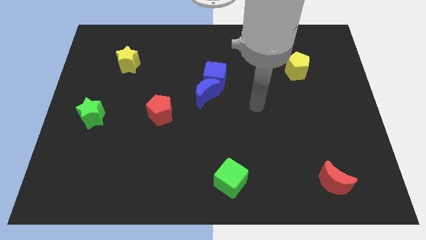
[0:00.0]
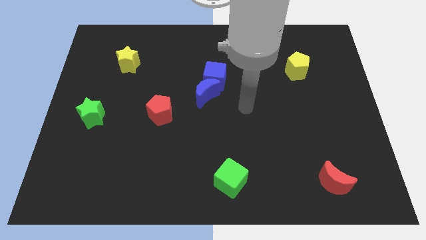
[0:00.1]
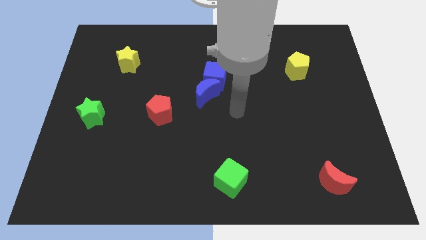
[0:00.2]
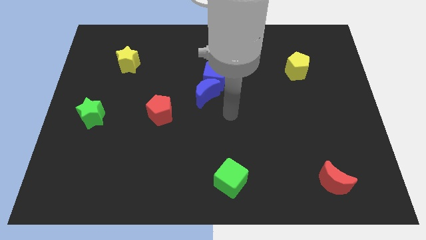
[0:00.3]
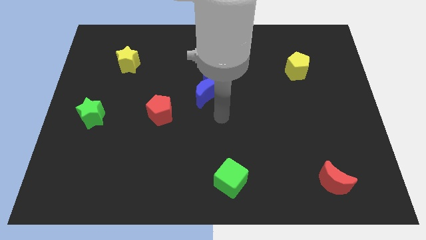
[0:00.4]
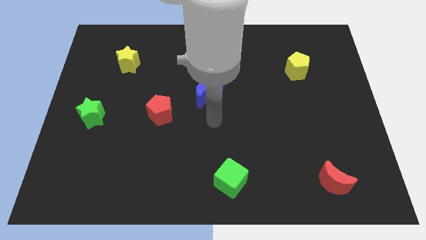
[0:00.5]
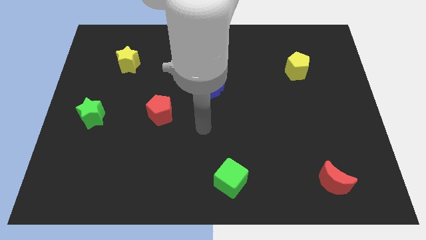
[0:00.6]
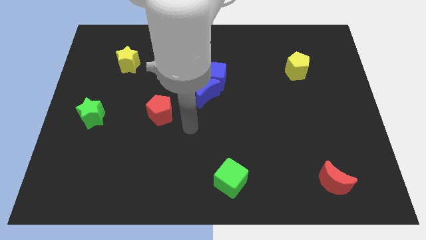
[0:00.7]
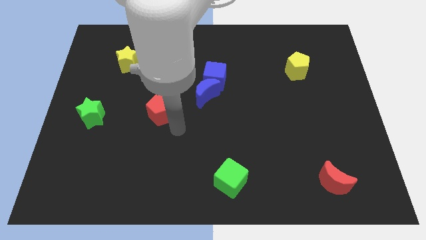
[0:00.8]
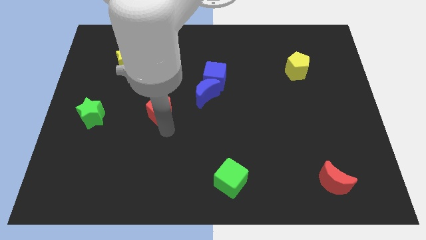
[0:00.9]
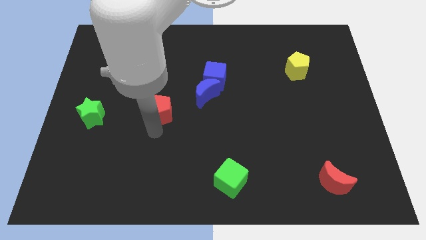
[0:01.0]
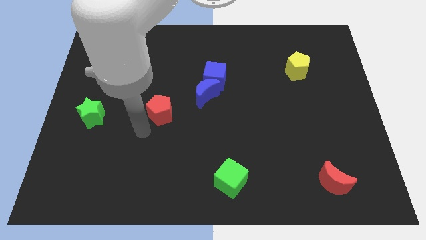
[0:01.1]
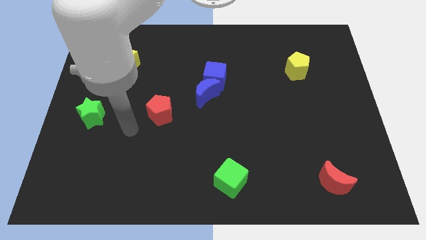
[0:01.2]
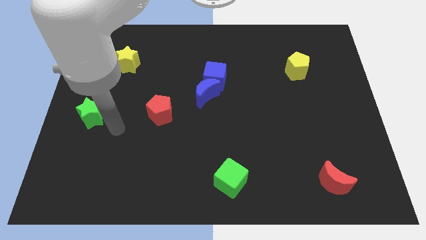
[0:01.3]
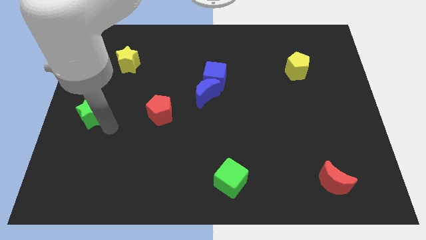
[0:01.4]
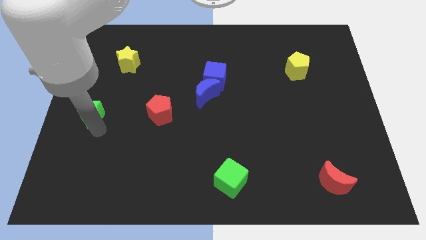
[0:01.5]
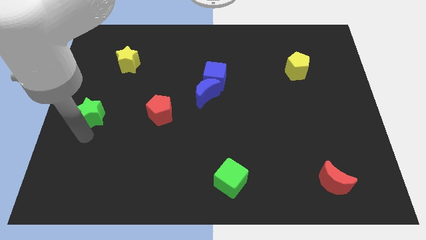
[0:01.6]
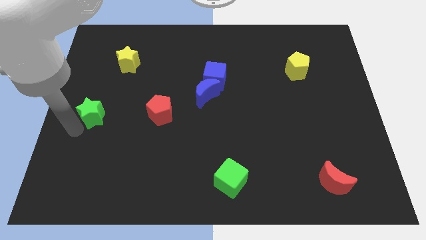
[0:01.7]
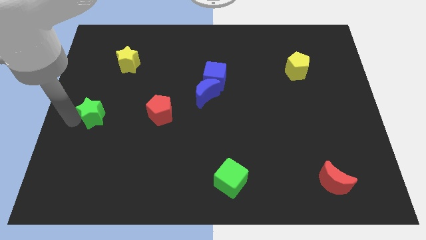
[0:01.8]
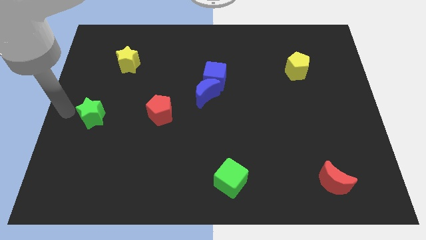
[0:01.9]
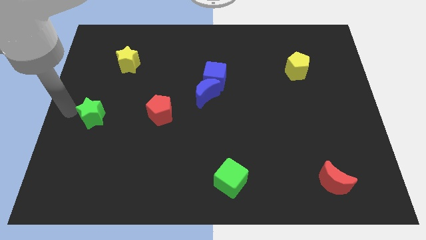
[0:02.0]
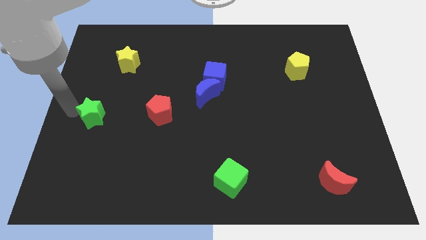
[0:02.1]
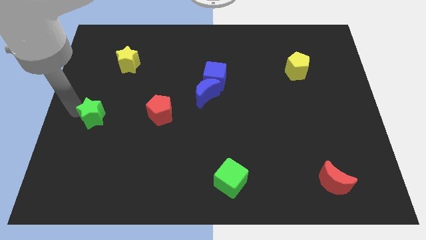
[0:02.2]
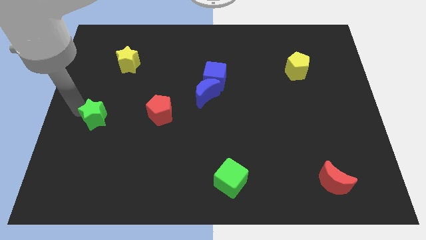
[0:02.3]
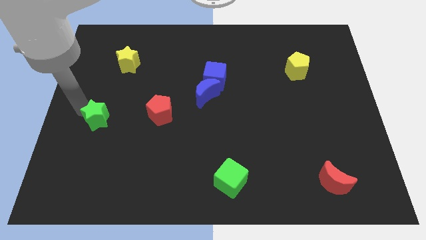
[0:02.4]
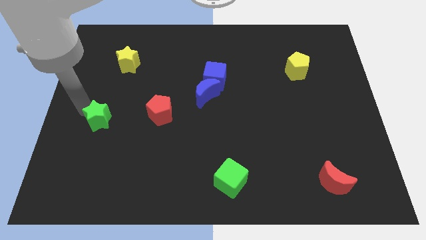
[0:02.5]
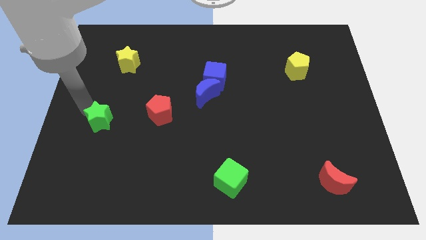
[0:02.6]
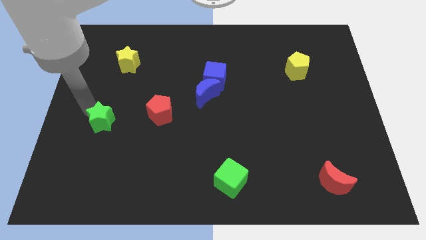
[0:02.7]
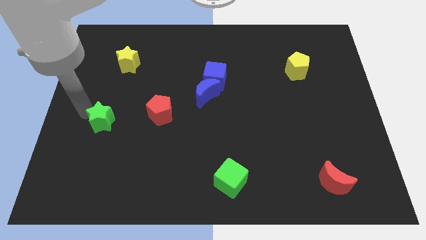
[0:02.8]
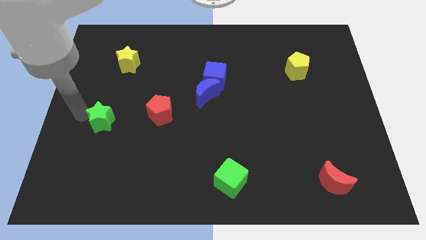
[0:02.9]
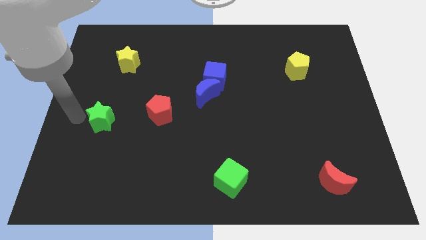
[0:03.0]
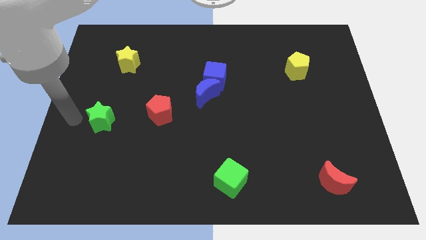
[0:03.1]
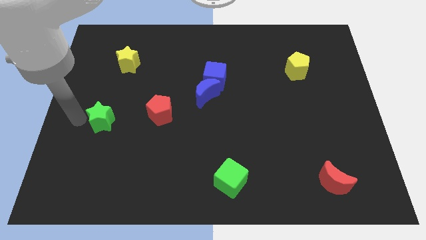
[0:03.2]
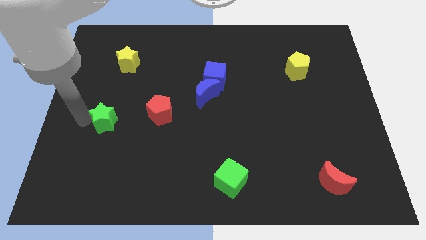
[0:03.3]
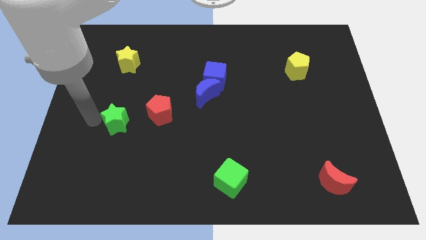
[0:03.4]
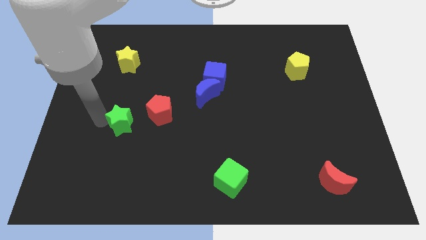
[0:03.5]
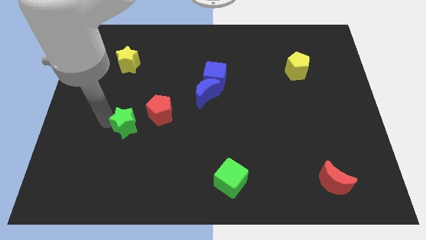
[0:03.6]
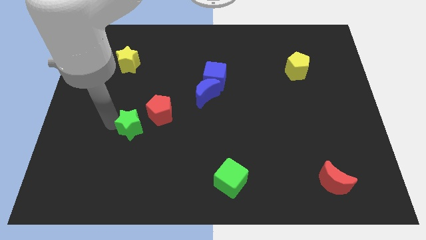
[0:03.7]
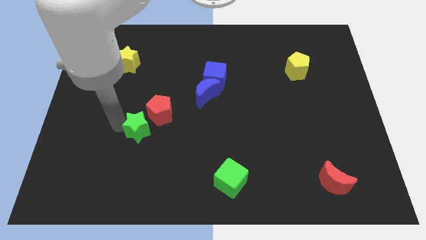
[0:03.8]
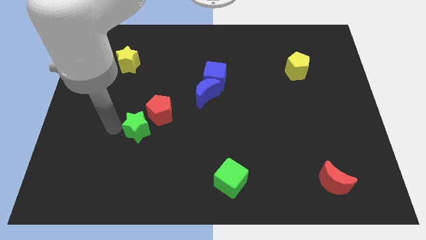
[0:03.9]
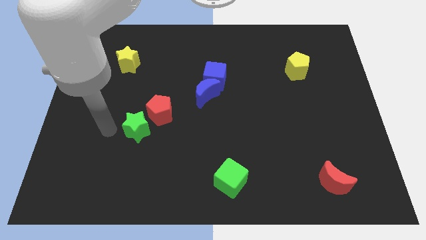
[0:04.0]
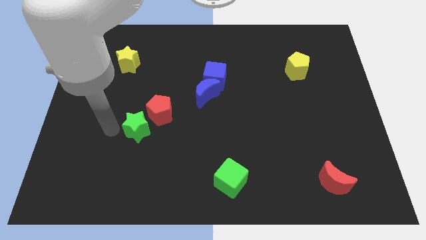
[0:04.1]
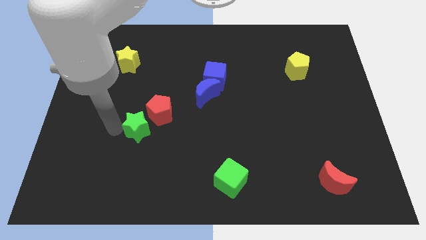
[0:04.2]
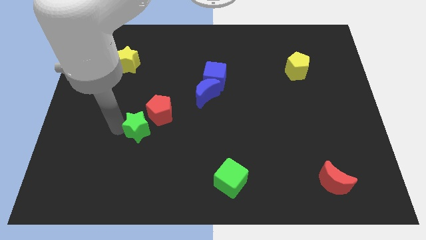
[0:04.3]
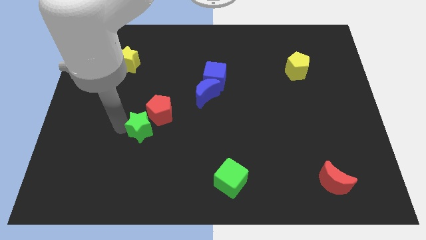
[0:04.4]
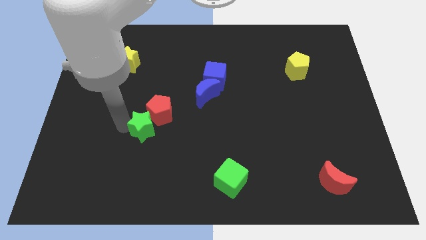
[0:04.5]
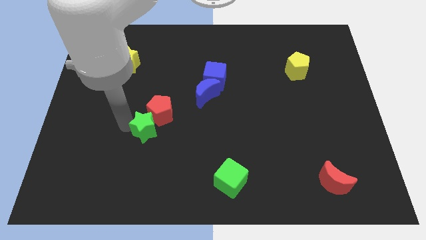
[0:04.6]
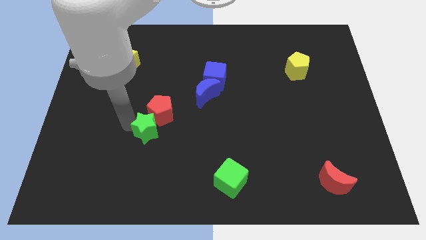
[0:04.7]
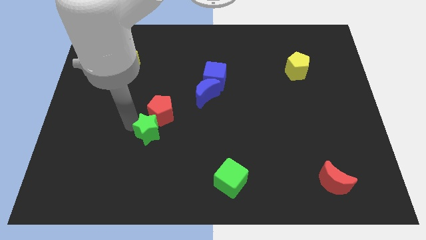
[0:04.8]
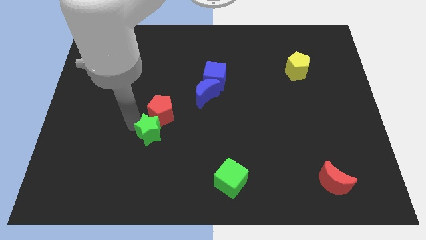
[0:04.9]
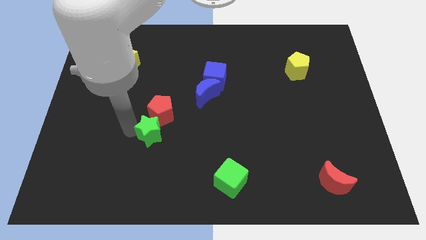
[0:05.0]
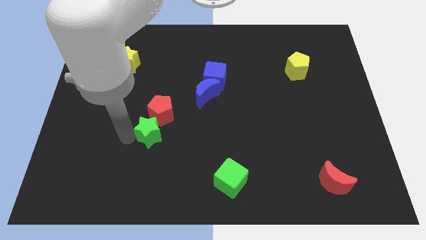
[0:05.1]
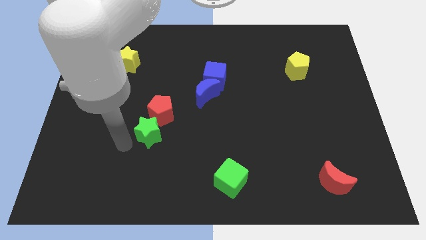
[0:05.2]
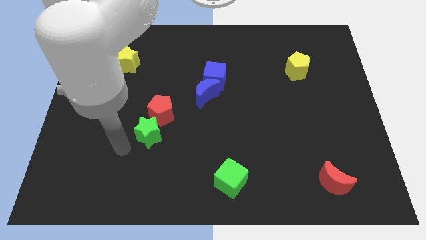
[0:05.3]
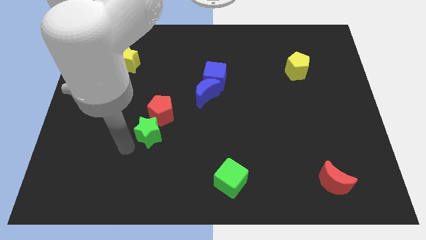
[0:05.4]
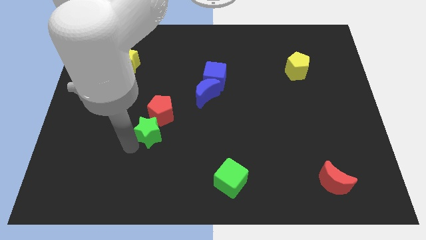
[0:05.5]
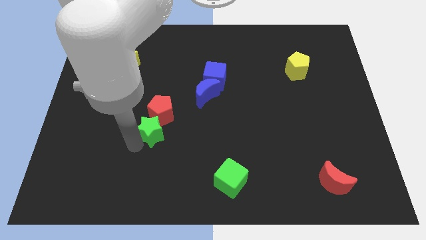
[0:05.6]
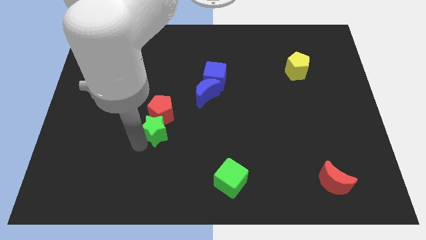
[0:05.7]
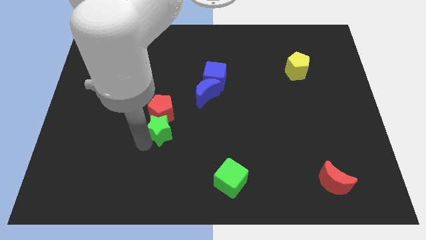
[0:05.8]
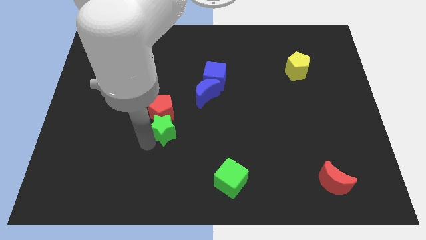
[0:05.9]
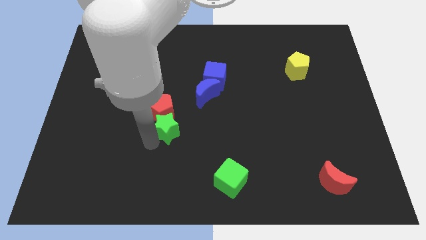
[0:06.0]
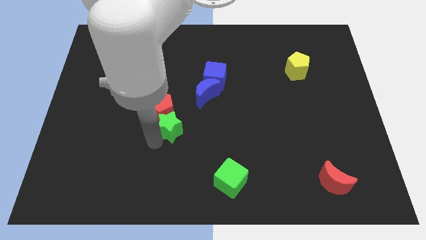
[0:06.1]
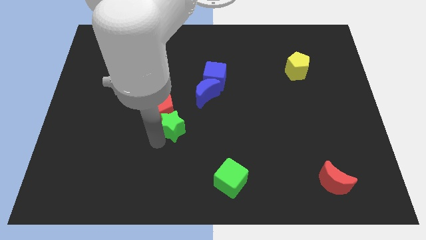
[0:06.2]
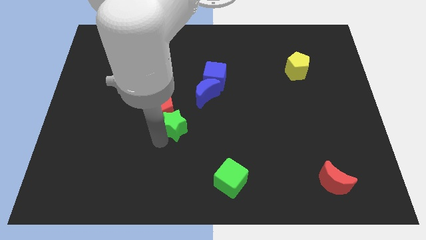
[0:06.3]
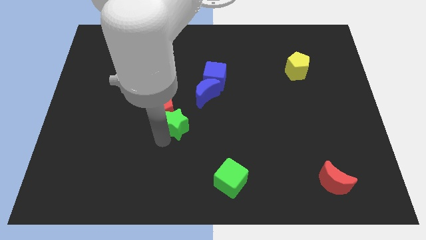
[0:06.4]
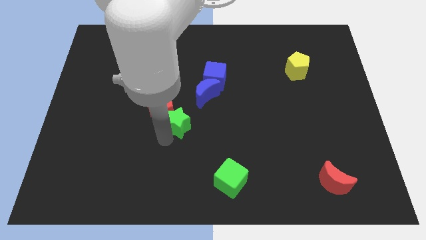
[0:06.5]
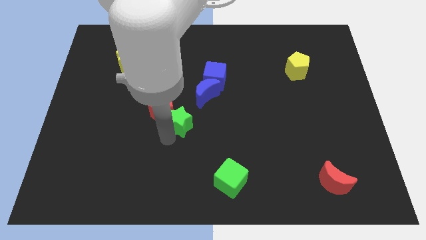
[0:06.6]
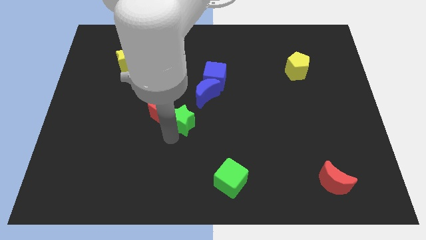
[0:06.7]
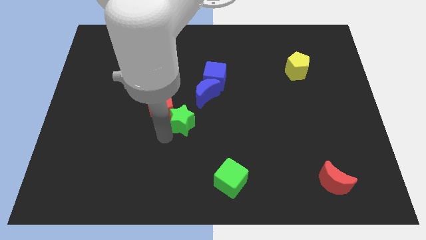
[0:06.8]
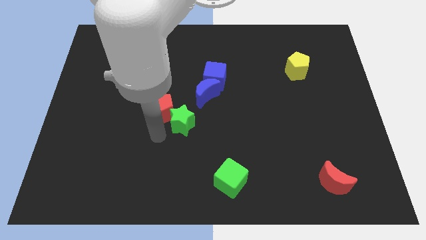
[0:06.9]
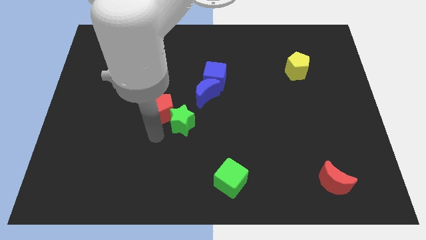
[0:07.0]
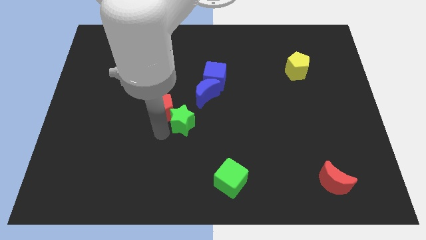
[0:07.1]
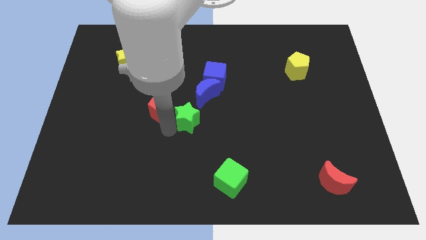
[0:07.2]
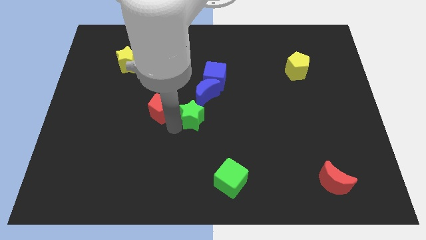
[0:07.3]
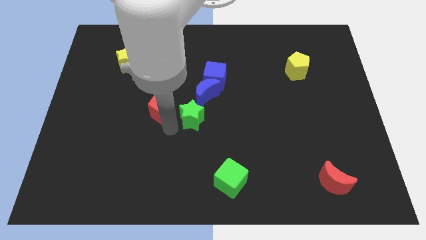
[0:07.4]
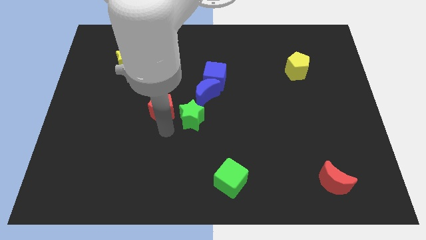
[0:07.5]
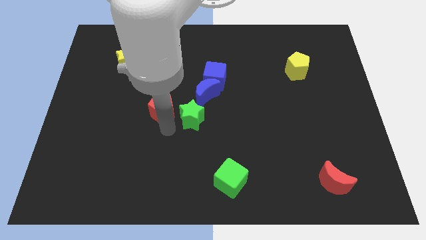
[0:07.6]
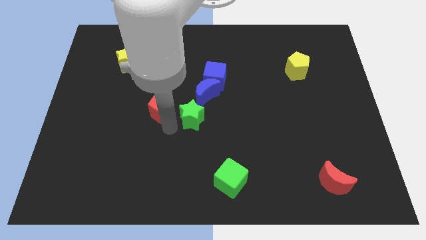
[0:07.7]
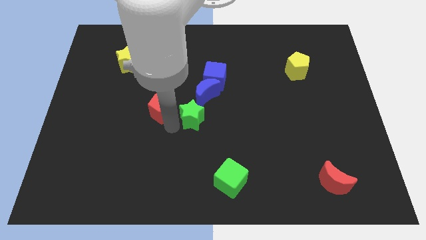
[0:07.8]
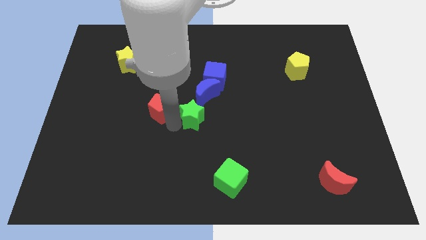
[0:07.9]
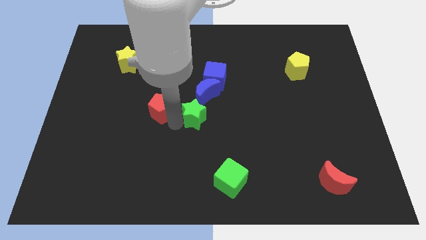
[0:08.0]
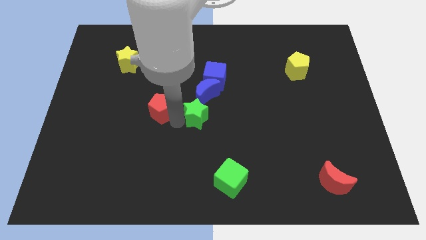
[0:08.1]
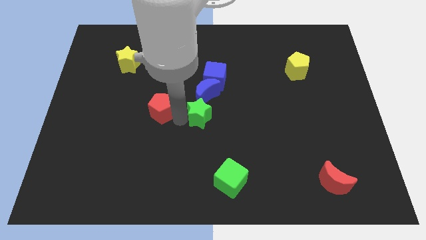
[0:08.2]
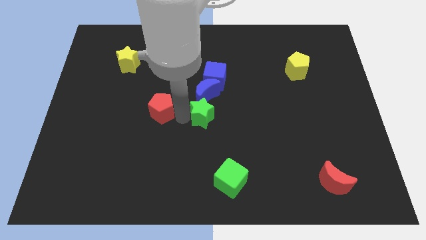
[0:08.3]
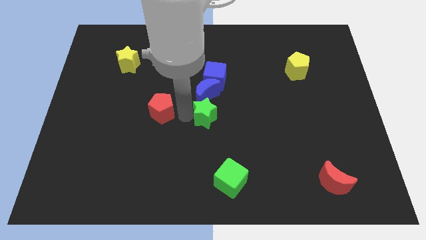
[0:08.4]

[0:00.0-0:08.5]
slide the green star diagonally down and to the right of the blue moon
